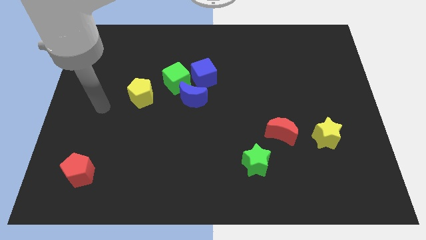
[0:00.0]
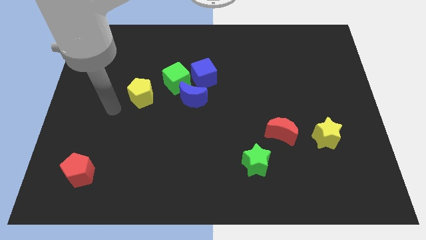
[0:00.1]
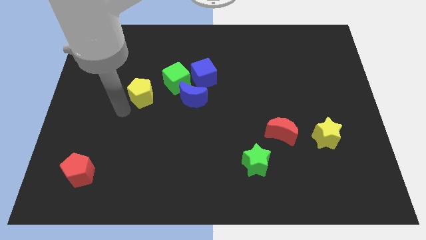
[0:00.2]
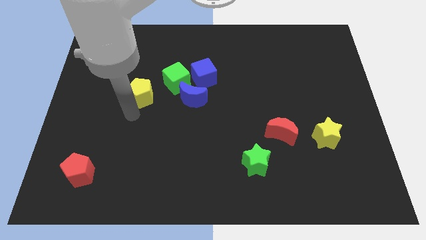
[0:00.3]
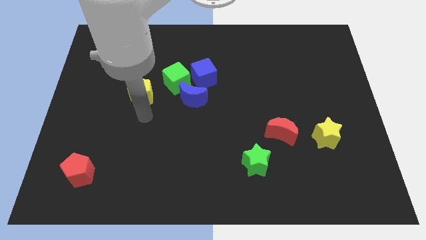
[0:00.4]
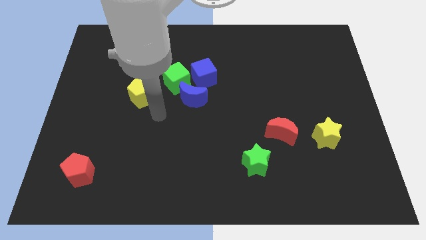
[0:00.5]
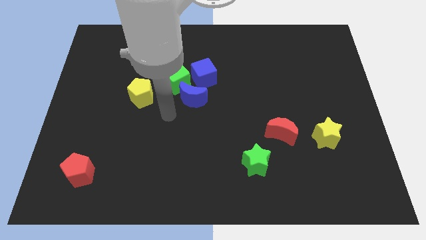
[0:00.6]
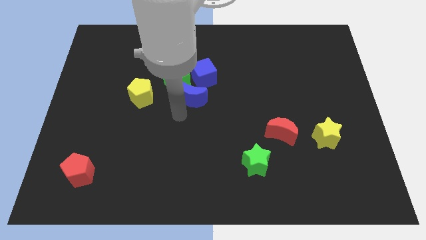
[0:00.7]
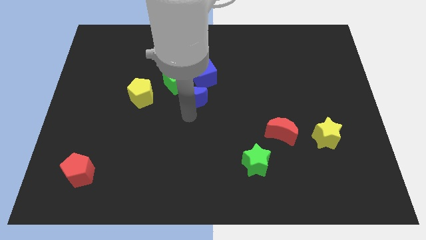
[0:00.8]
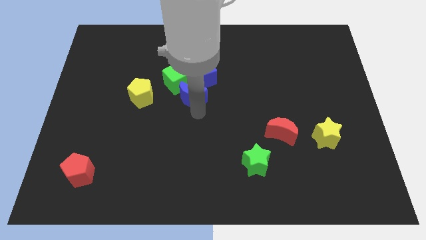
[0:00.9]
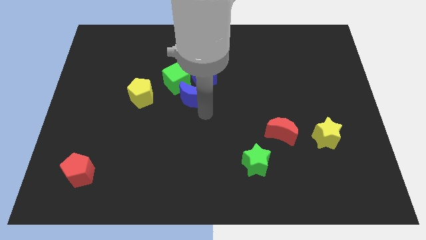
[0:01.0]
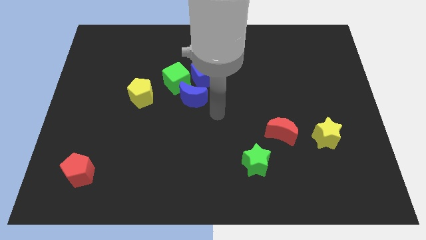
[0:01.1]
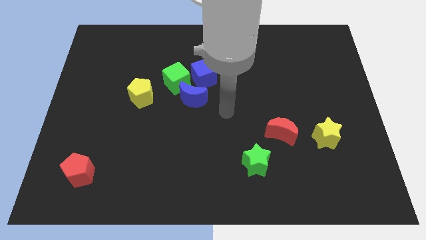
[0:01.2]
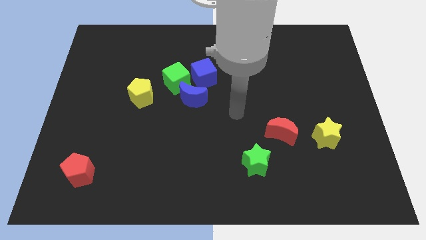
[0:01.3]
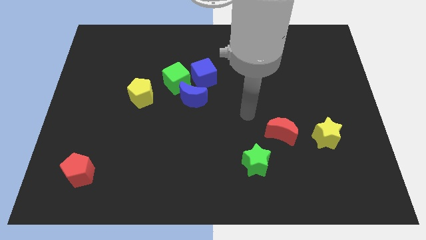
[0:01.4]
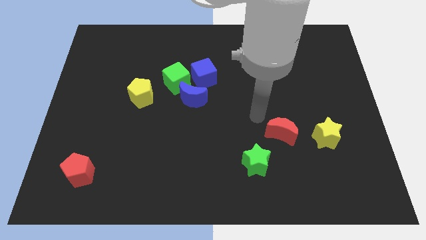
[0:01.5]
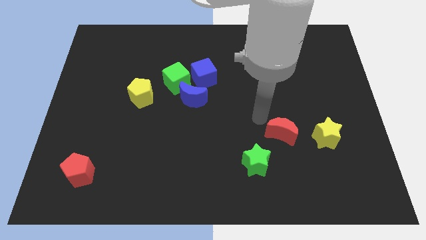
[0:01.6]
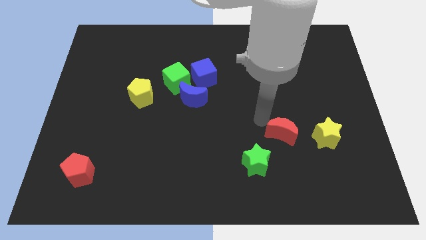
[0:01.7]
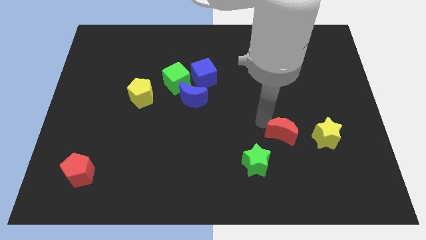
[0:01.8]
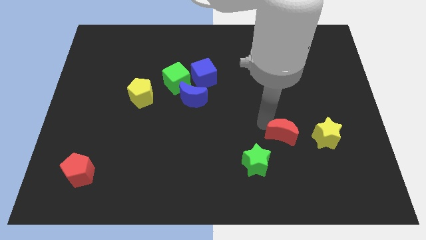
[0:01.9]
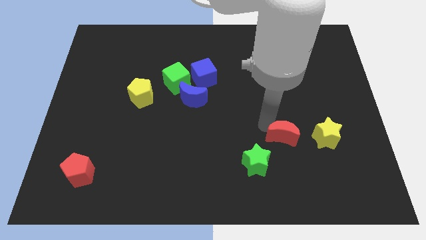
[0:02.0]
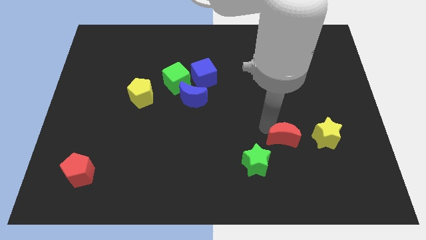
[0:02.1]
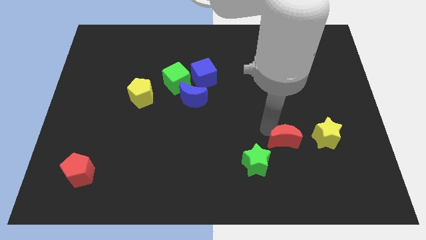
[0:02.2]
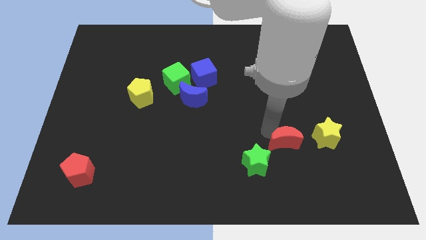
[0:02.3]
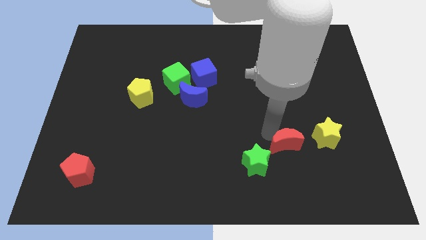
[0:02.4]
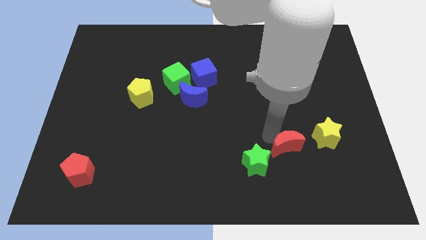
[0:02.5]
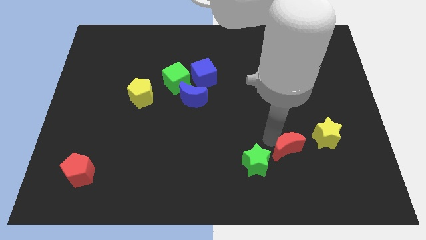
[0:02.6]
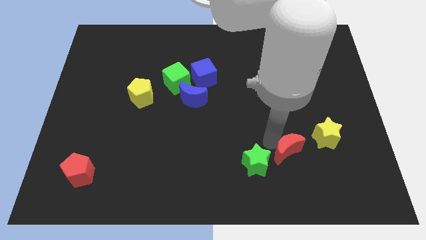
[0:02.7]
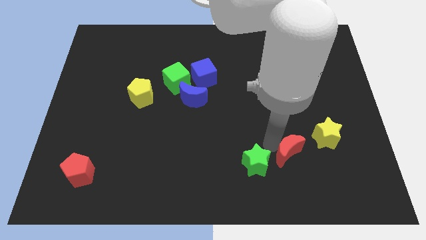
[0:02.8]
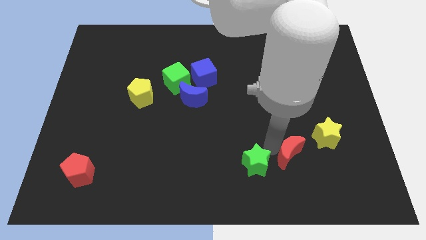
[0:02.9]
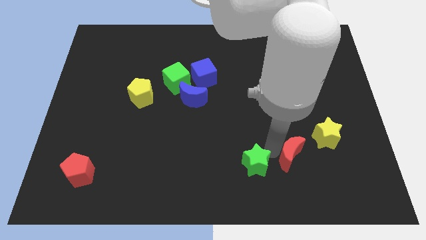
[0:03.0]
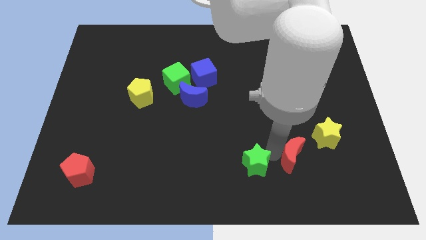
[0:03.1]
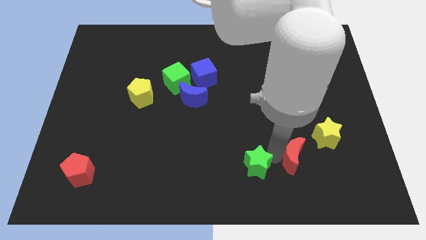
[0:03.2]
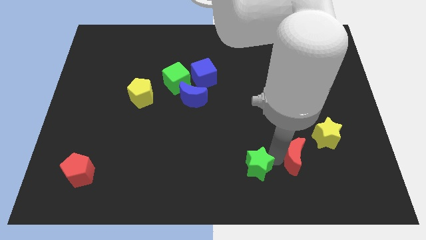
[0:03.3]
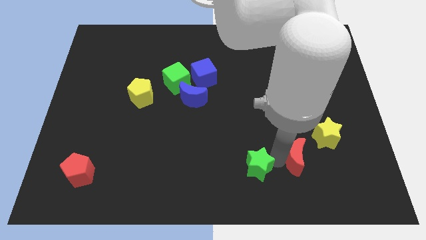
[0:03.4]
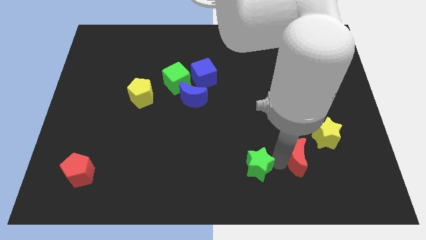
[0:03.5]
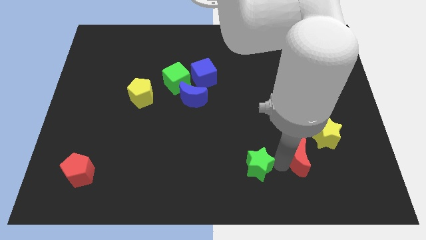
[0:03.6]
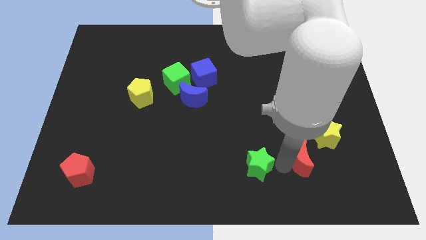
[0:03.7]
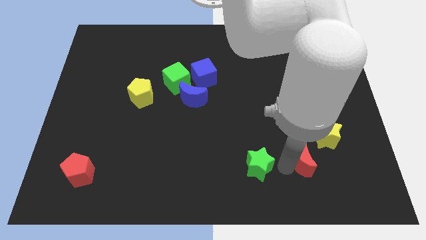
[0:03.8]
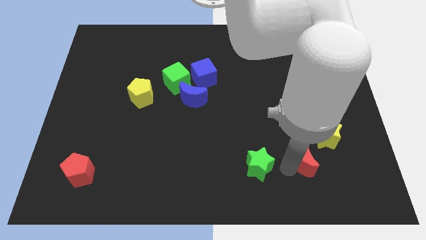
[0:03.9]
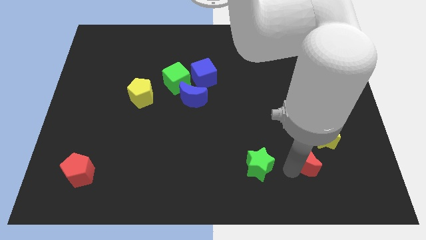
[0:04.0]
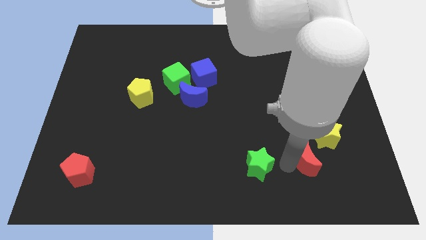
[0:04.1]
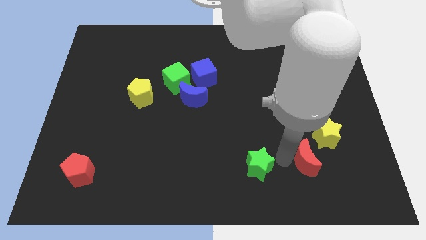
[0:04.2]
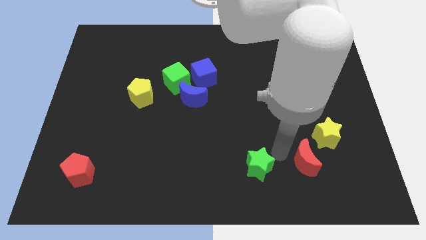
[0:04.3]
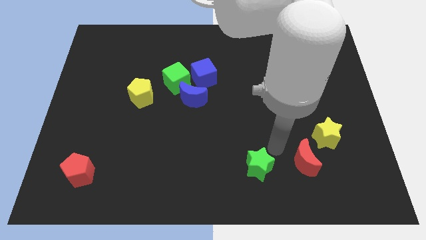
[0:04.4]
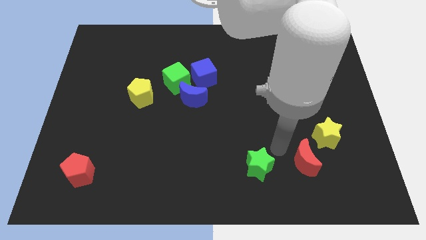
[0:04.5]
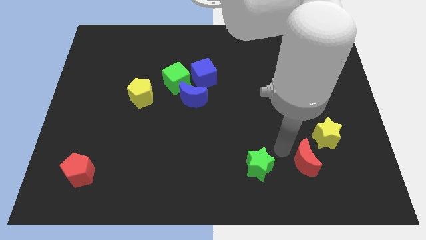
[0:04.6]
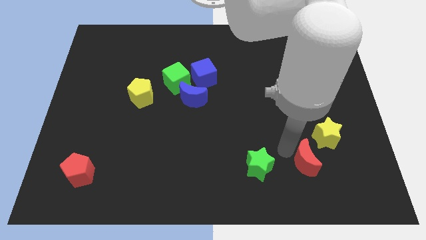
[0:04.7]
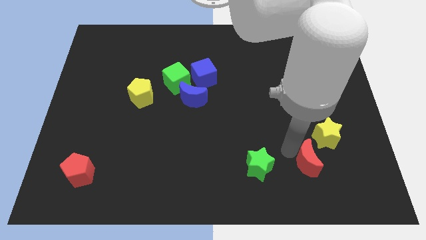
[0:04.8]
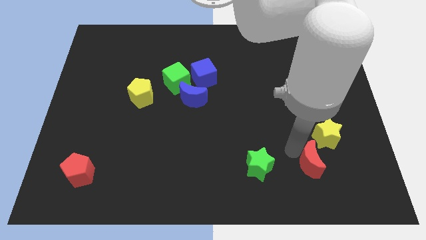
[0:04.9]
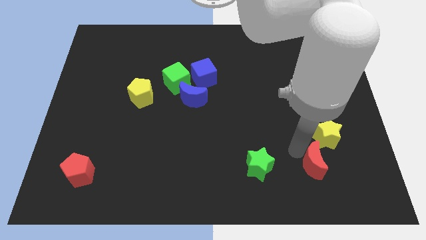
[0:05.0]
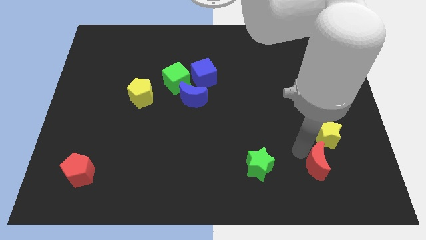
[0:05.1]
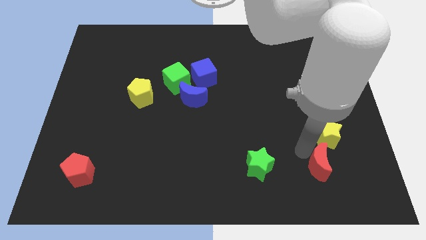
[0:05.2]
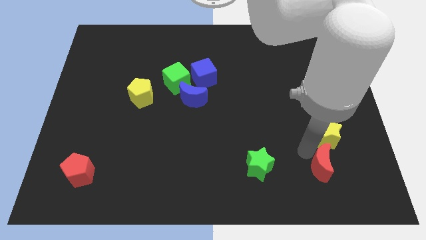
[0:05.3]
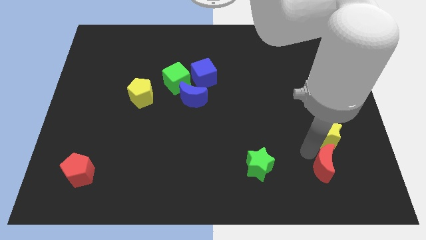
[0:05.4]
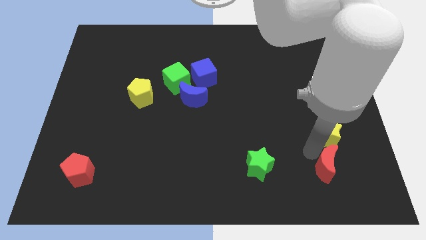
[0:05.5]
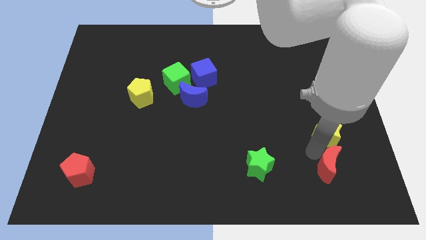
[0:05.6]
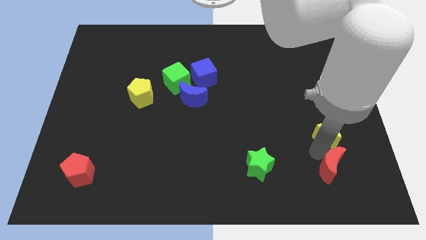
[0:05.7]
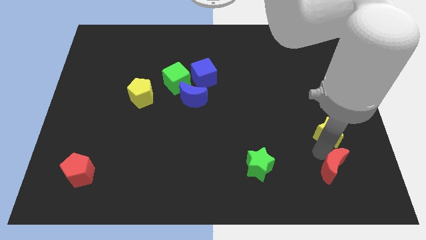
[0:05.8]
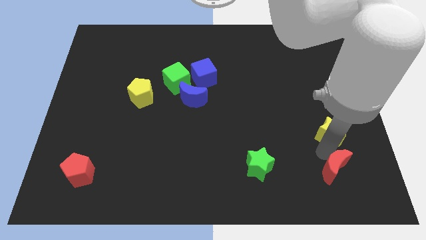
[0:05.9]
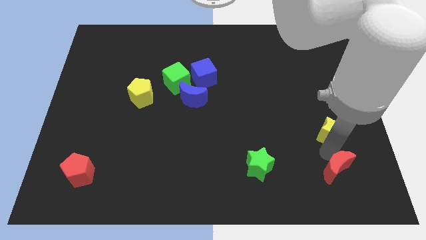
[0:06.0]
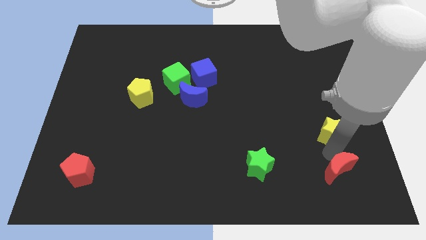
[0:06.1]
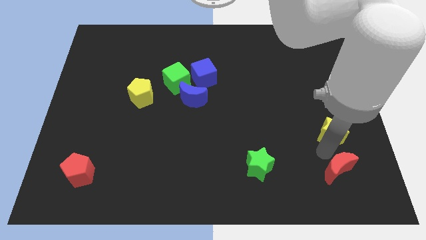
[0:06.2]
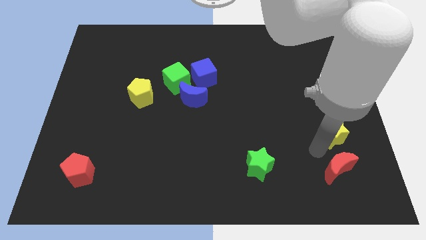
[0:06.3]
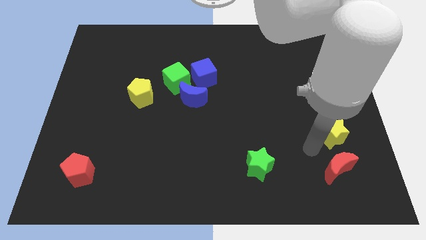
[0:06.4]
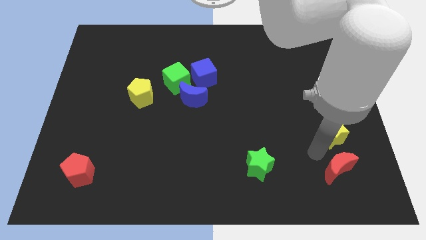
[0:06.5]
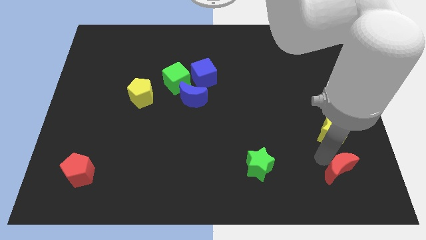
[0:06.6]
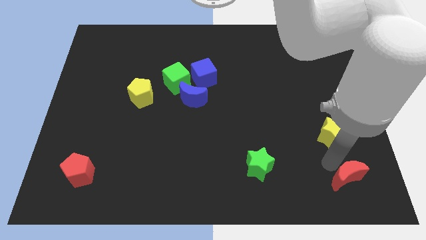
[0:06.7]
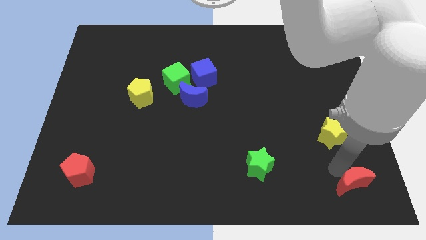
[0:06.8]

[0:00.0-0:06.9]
move the red moon to the bottom right corner
